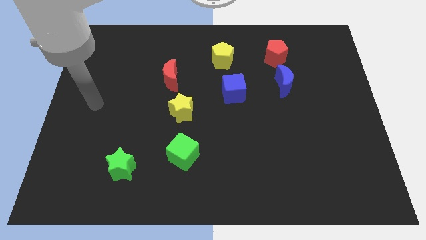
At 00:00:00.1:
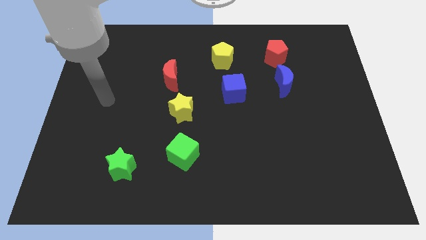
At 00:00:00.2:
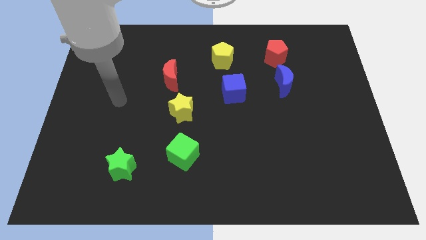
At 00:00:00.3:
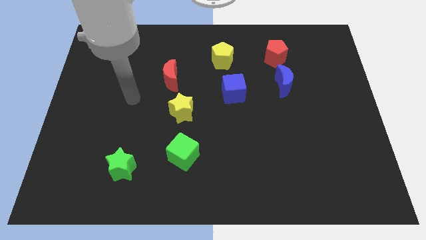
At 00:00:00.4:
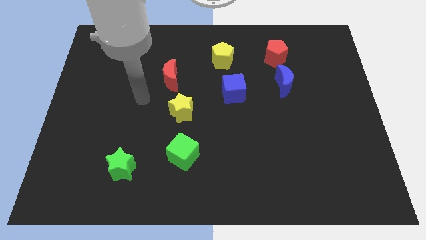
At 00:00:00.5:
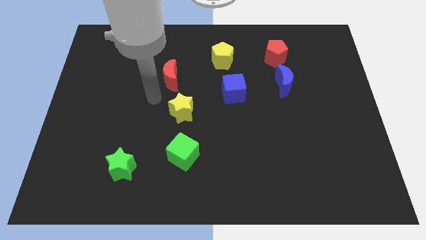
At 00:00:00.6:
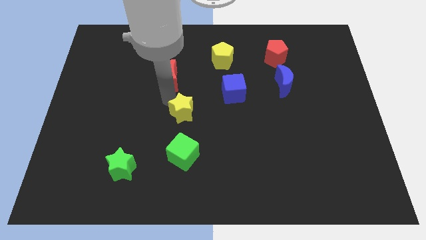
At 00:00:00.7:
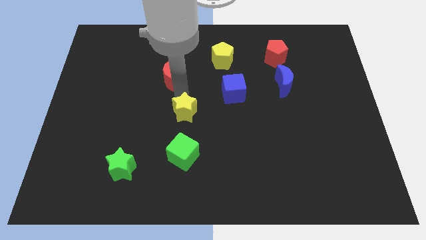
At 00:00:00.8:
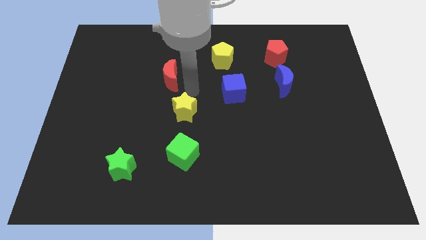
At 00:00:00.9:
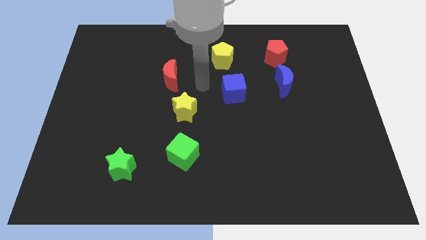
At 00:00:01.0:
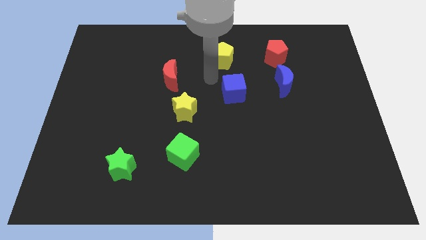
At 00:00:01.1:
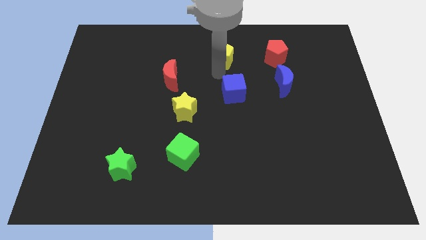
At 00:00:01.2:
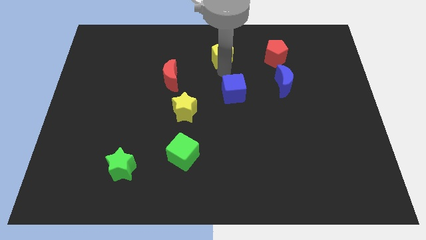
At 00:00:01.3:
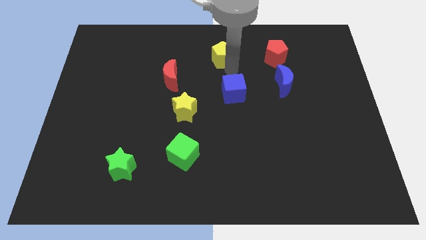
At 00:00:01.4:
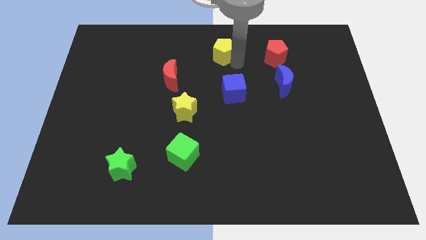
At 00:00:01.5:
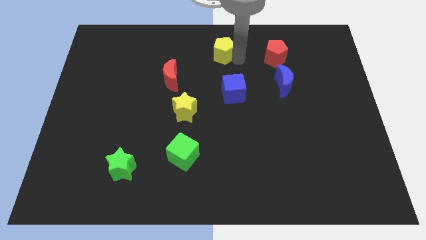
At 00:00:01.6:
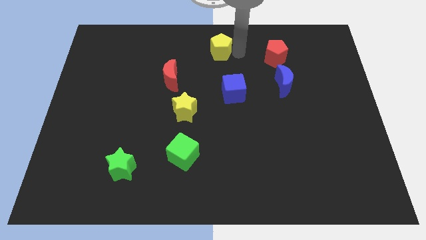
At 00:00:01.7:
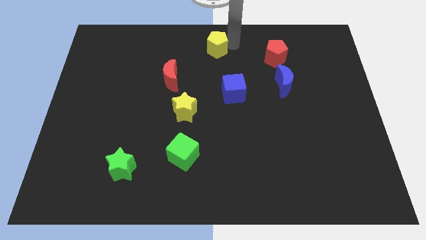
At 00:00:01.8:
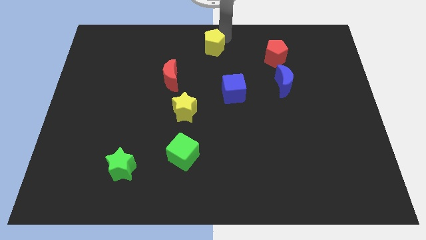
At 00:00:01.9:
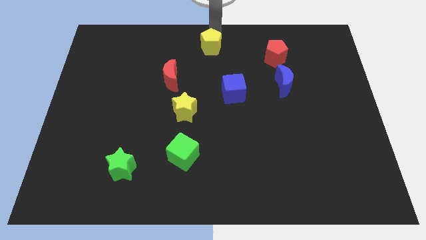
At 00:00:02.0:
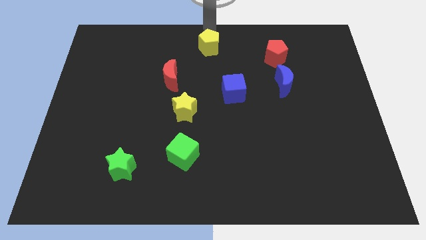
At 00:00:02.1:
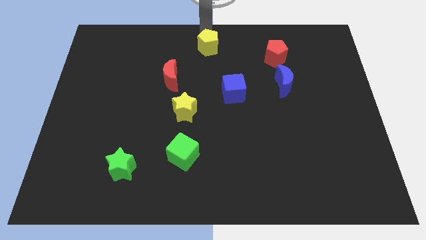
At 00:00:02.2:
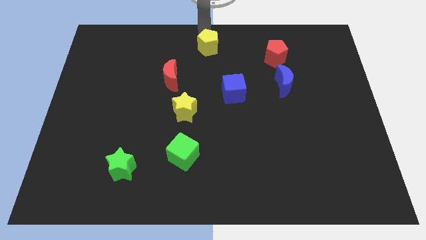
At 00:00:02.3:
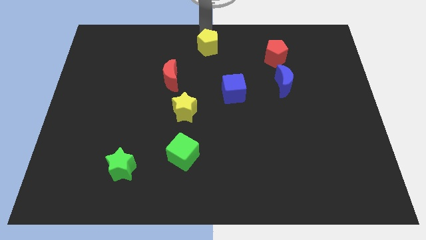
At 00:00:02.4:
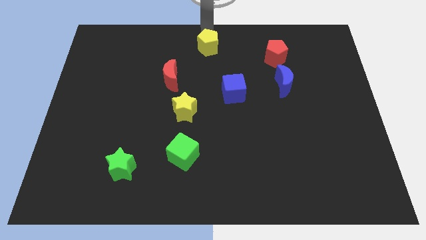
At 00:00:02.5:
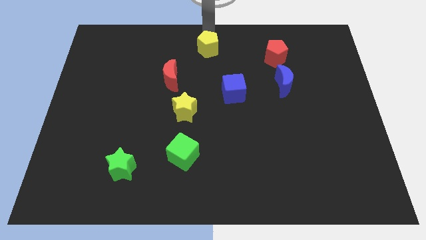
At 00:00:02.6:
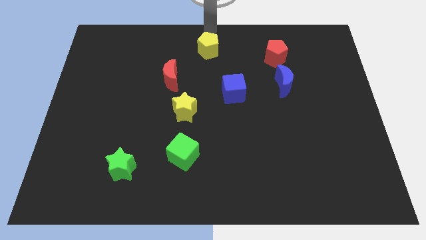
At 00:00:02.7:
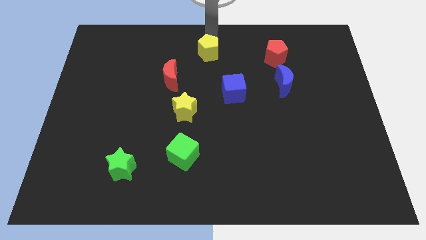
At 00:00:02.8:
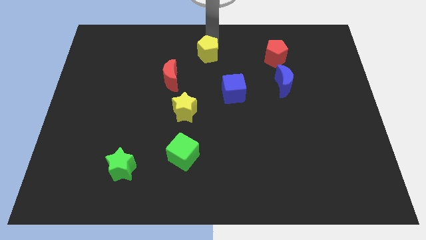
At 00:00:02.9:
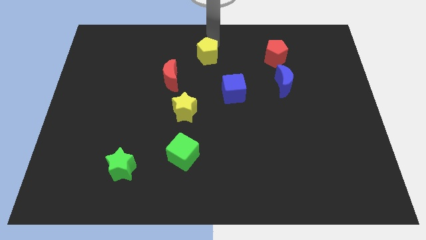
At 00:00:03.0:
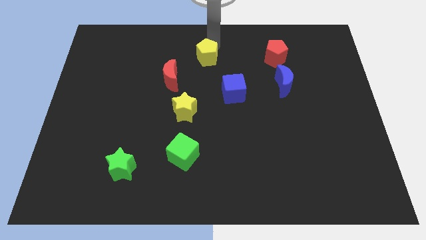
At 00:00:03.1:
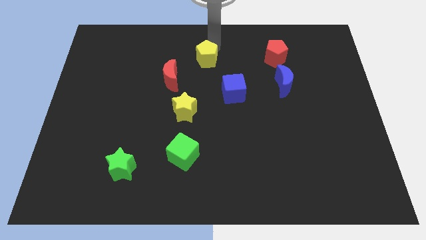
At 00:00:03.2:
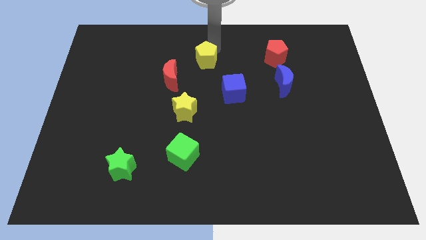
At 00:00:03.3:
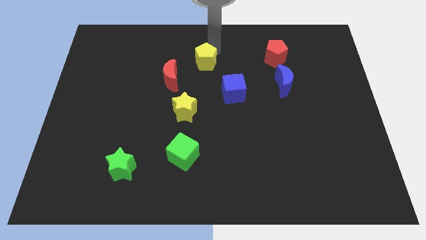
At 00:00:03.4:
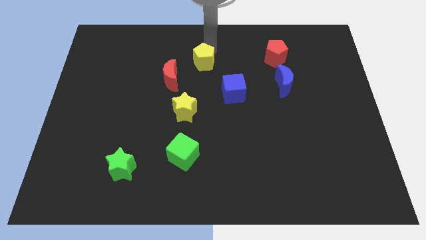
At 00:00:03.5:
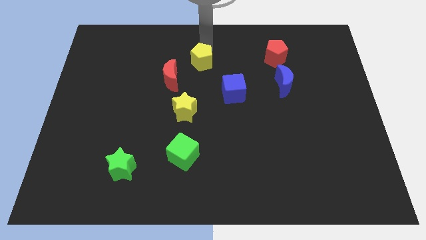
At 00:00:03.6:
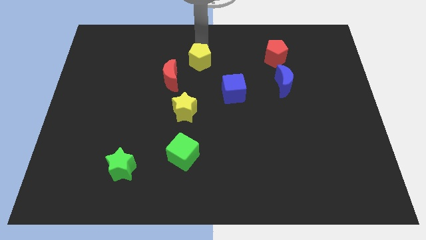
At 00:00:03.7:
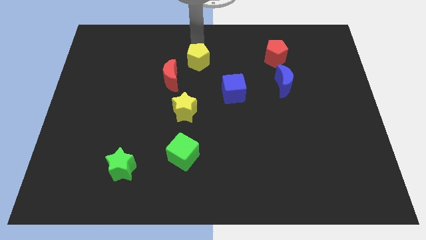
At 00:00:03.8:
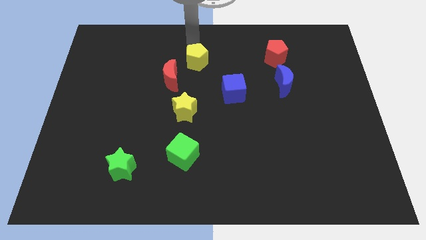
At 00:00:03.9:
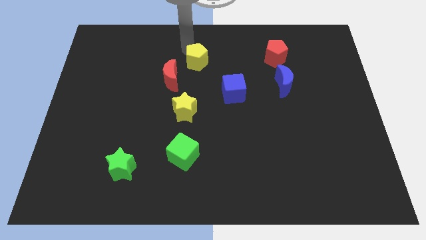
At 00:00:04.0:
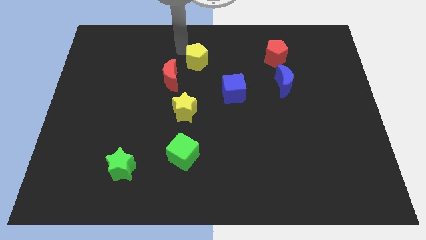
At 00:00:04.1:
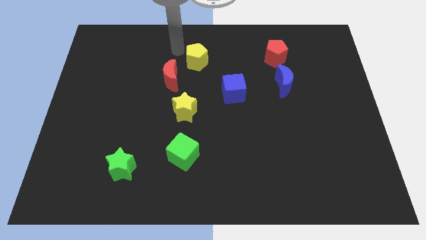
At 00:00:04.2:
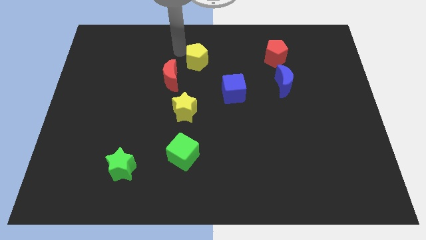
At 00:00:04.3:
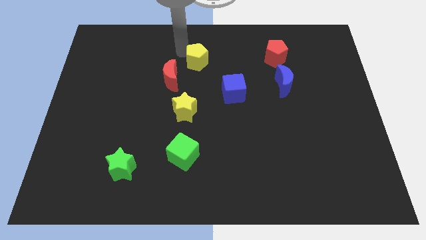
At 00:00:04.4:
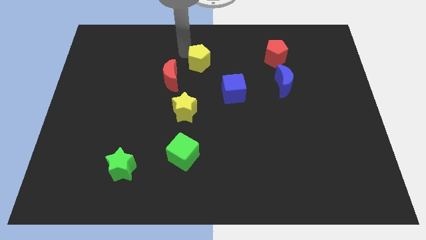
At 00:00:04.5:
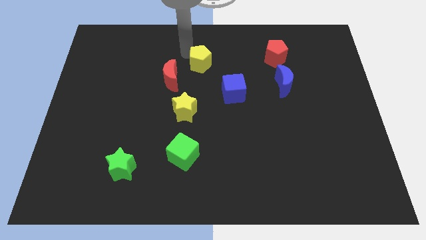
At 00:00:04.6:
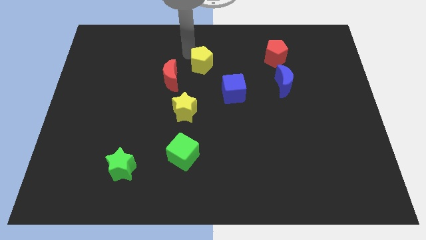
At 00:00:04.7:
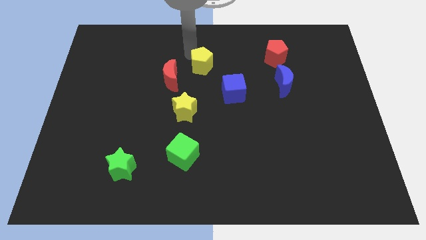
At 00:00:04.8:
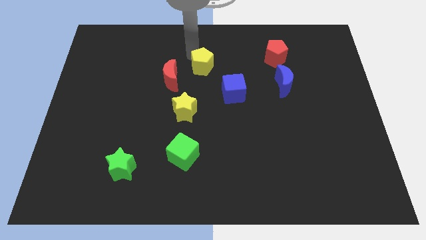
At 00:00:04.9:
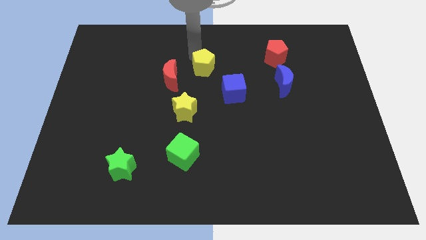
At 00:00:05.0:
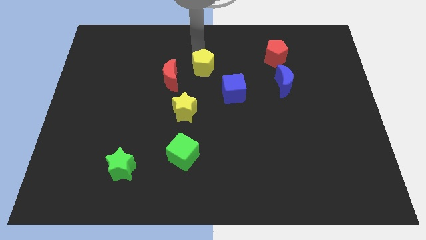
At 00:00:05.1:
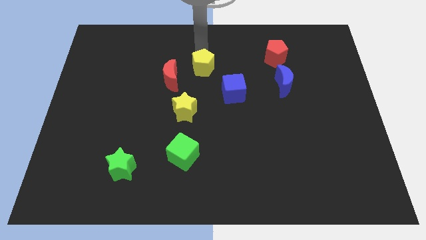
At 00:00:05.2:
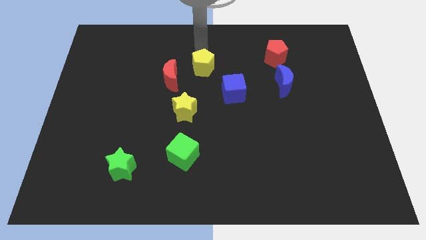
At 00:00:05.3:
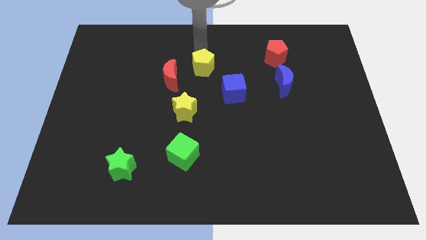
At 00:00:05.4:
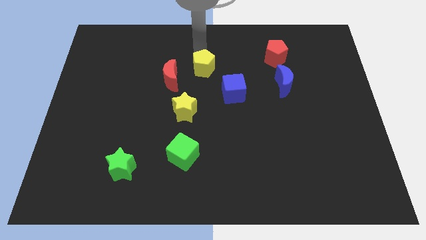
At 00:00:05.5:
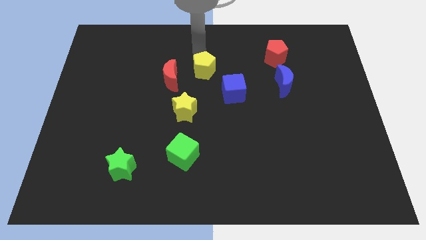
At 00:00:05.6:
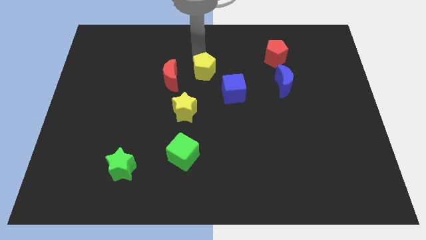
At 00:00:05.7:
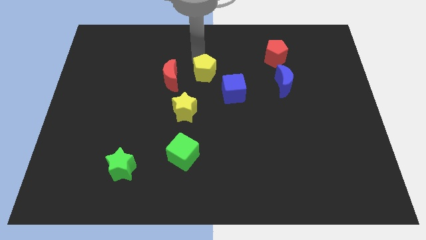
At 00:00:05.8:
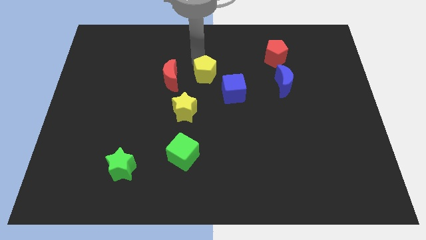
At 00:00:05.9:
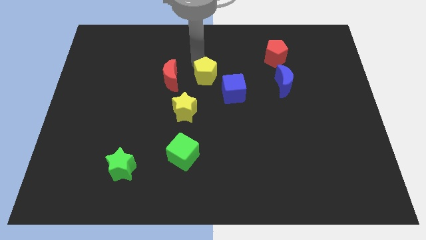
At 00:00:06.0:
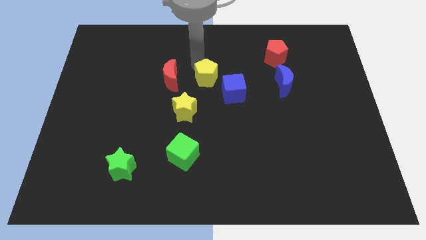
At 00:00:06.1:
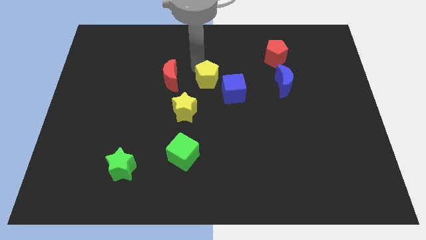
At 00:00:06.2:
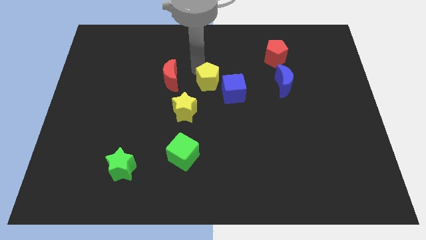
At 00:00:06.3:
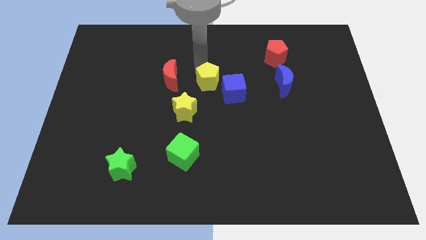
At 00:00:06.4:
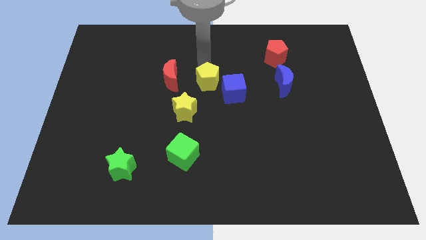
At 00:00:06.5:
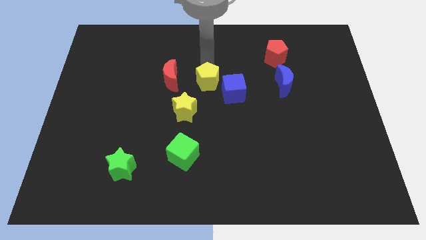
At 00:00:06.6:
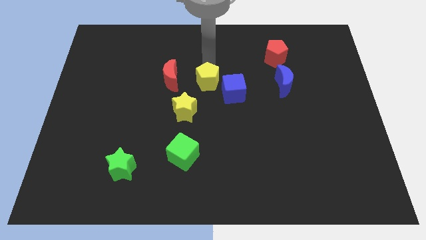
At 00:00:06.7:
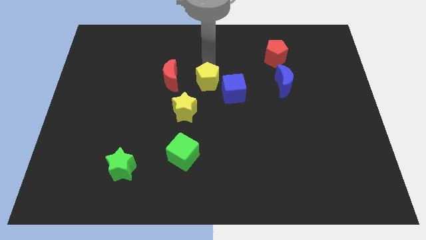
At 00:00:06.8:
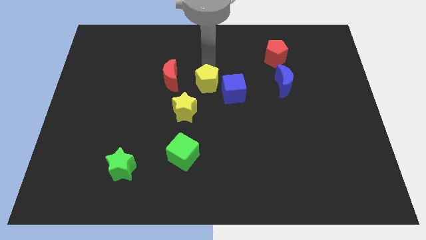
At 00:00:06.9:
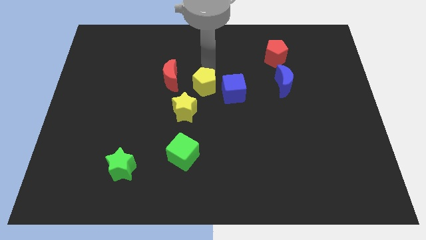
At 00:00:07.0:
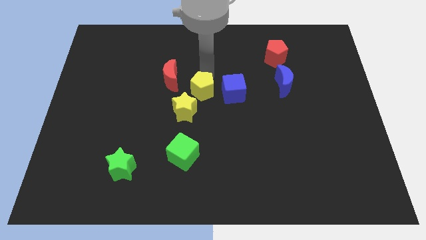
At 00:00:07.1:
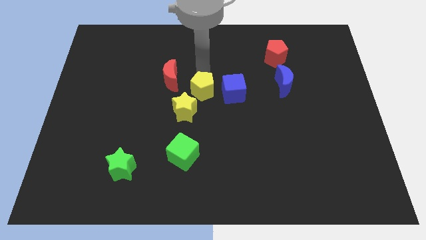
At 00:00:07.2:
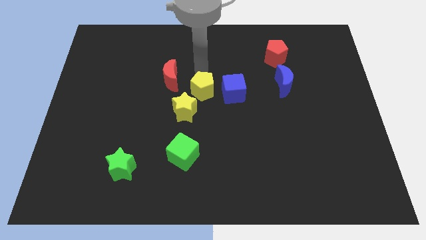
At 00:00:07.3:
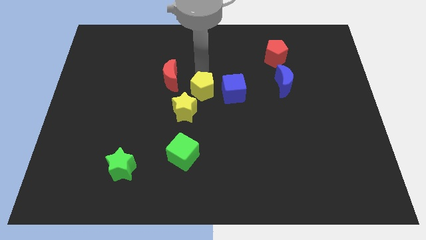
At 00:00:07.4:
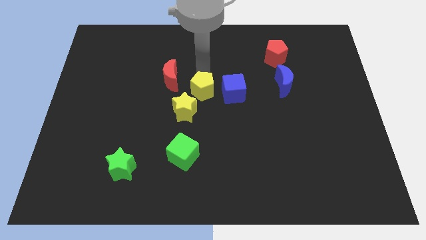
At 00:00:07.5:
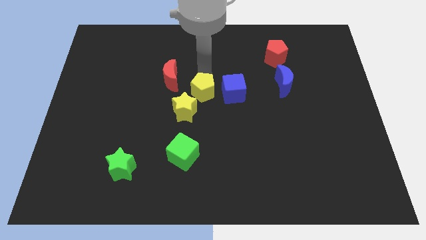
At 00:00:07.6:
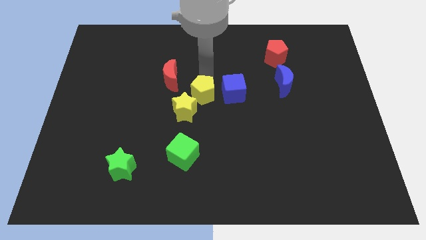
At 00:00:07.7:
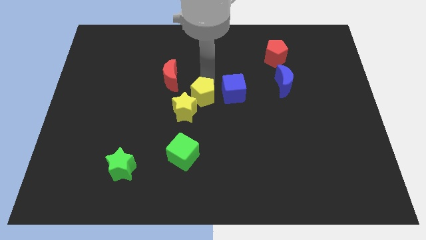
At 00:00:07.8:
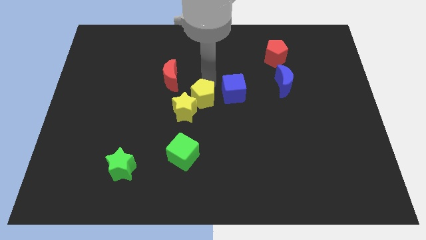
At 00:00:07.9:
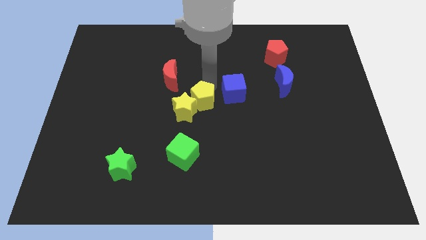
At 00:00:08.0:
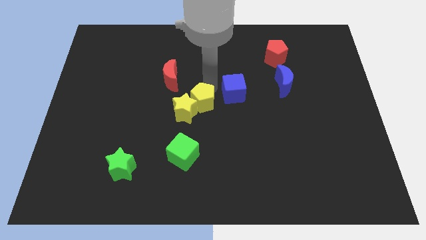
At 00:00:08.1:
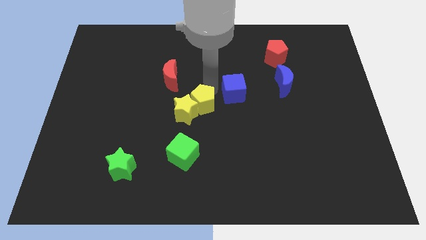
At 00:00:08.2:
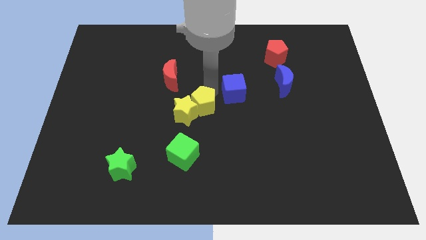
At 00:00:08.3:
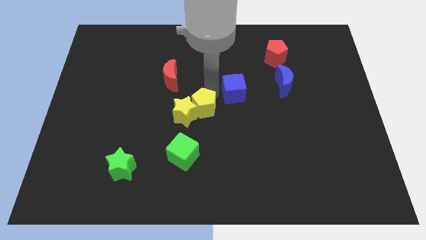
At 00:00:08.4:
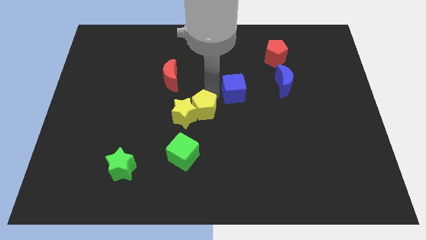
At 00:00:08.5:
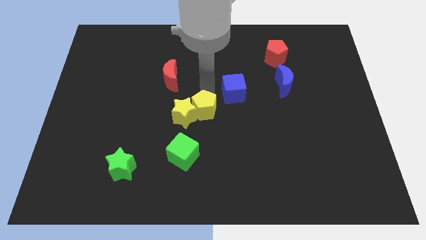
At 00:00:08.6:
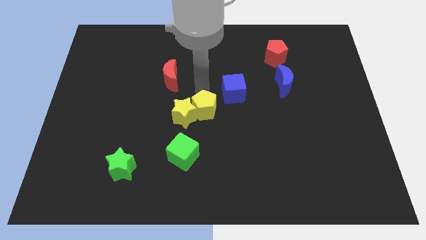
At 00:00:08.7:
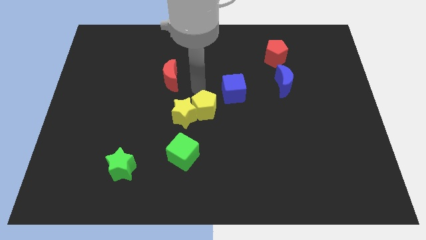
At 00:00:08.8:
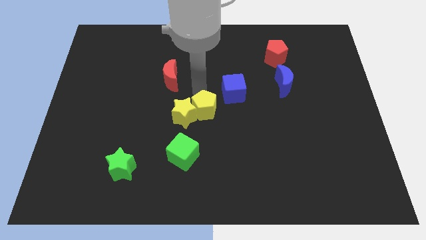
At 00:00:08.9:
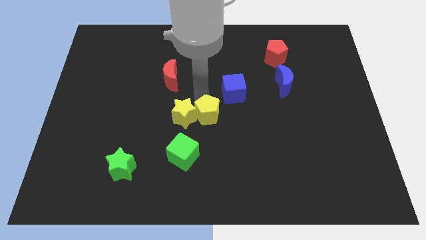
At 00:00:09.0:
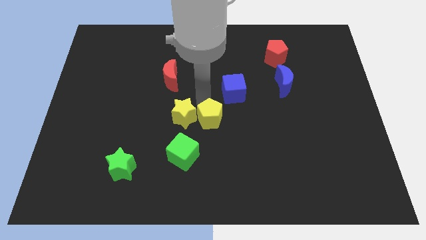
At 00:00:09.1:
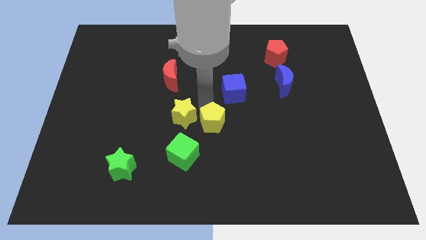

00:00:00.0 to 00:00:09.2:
move the yellow pentagon down
